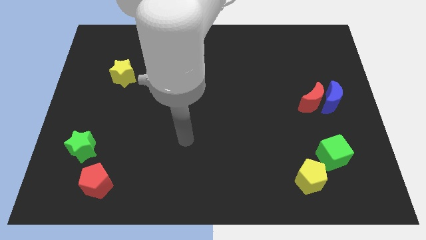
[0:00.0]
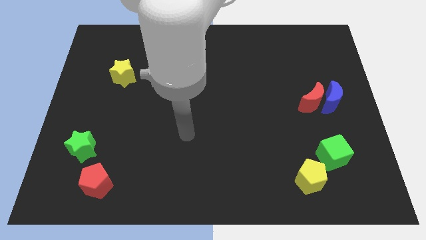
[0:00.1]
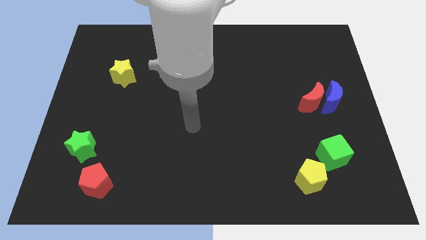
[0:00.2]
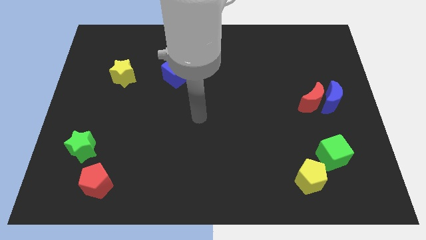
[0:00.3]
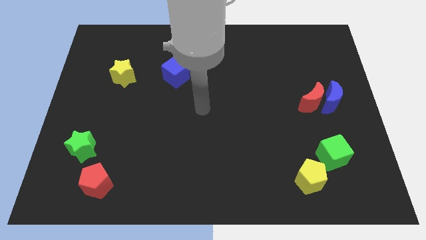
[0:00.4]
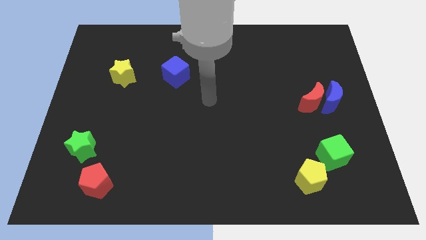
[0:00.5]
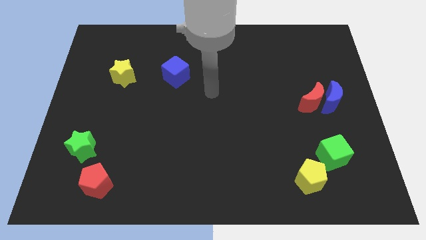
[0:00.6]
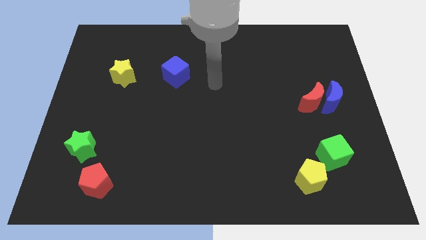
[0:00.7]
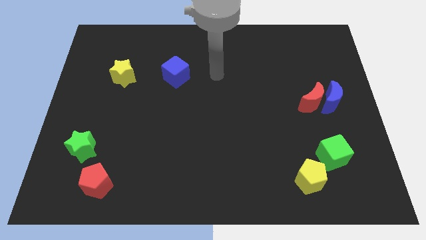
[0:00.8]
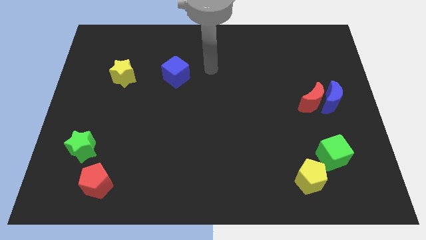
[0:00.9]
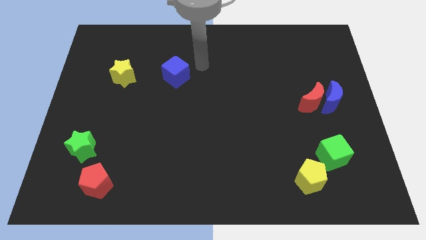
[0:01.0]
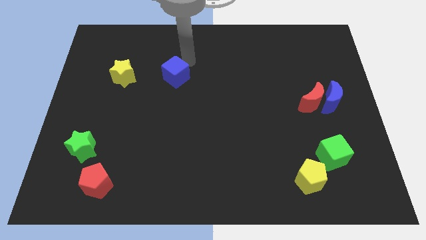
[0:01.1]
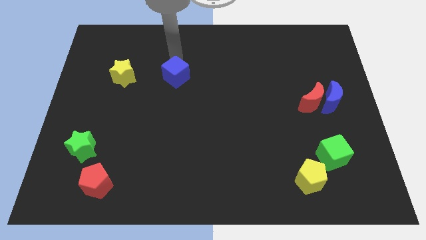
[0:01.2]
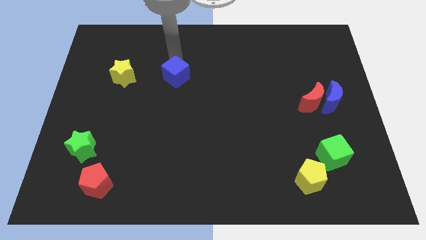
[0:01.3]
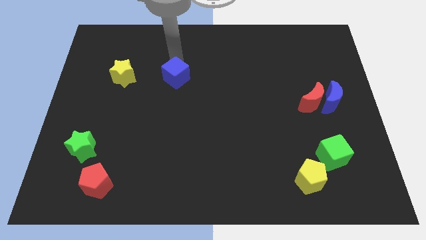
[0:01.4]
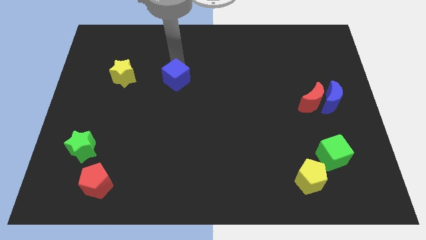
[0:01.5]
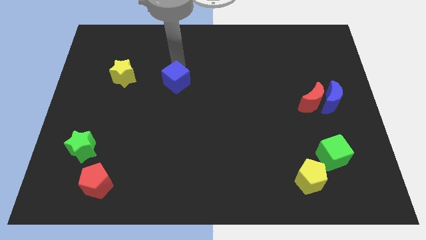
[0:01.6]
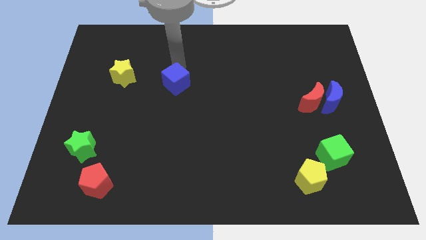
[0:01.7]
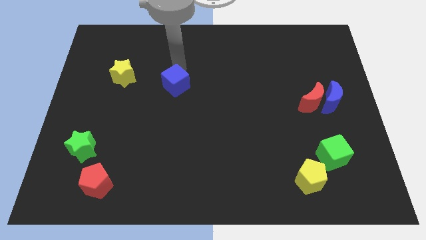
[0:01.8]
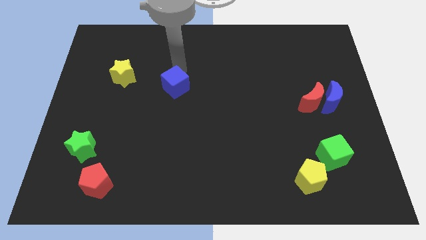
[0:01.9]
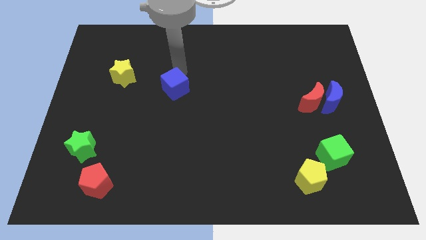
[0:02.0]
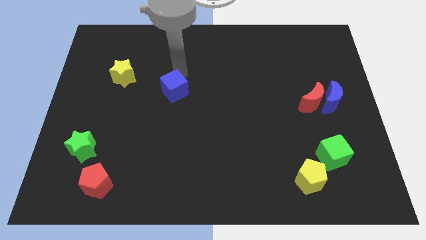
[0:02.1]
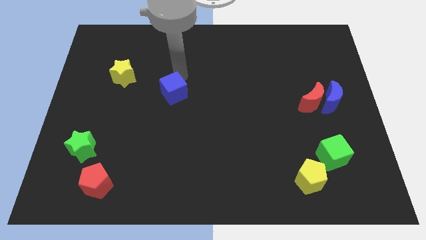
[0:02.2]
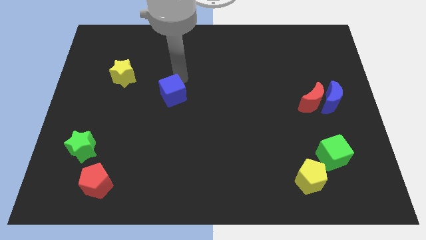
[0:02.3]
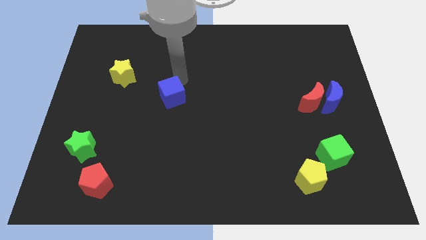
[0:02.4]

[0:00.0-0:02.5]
move the blue cube a bit down

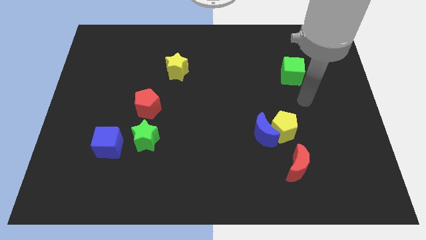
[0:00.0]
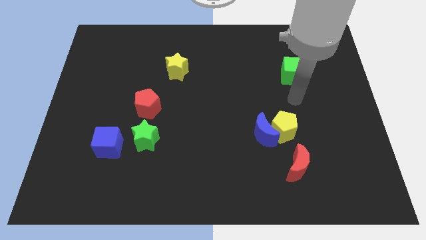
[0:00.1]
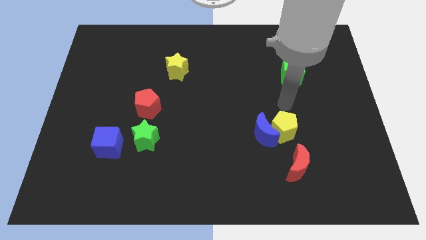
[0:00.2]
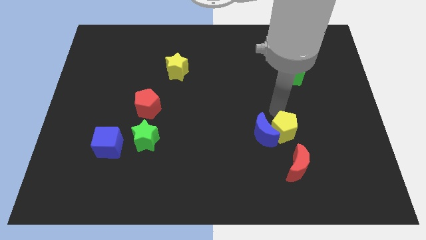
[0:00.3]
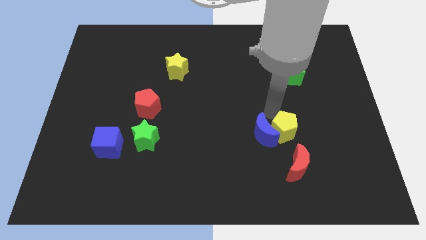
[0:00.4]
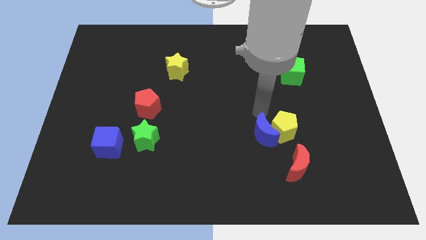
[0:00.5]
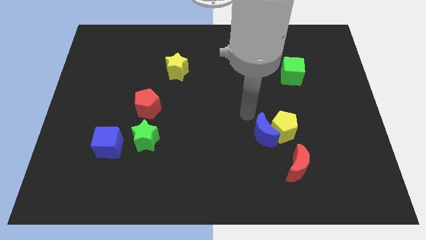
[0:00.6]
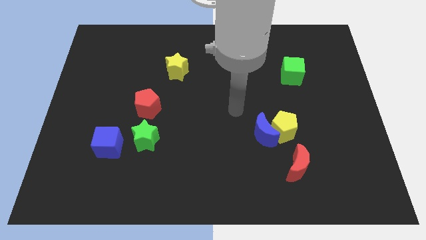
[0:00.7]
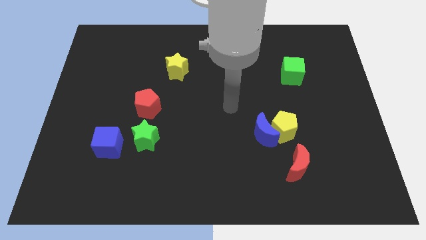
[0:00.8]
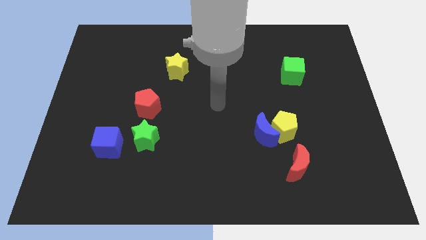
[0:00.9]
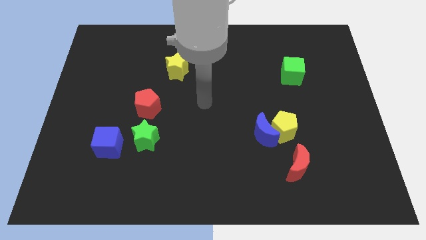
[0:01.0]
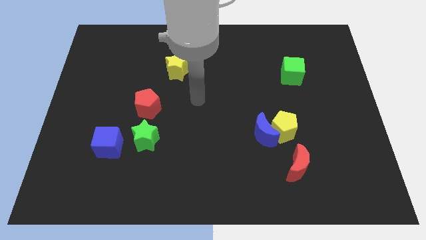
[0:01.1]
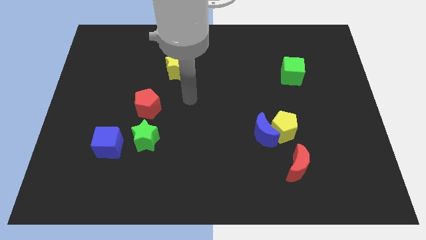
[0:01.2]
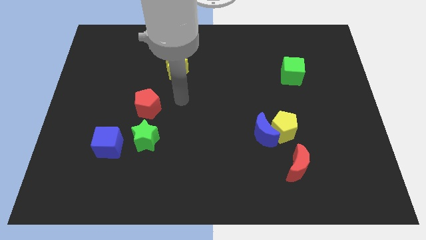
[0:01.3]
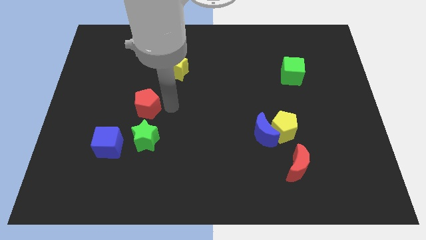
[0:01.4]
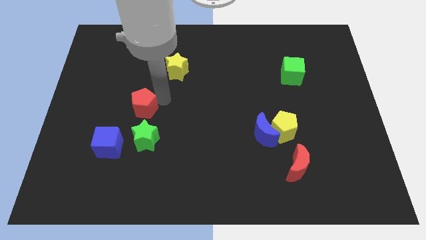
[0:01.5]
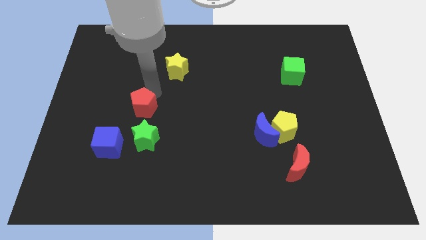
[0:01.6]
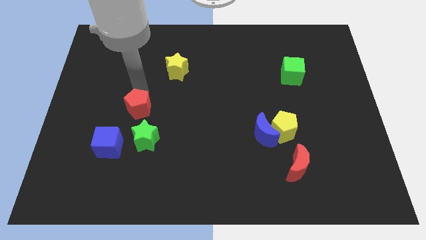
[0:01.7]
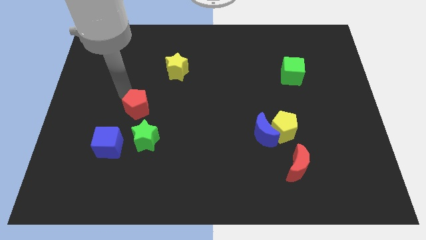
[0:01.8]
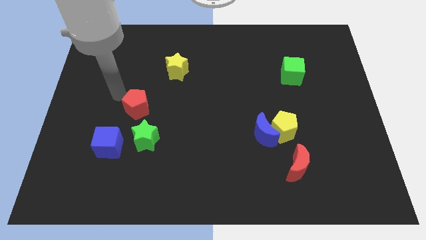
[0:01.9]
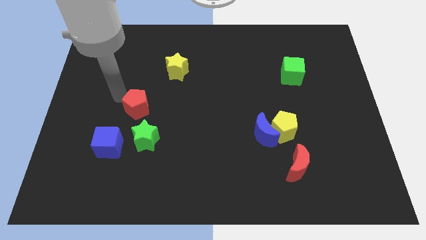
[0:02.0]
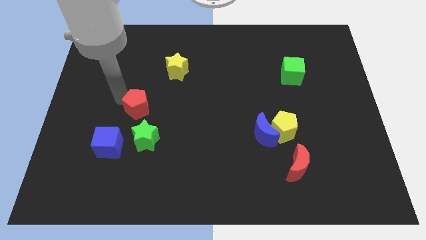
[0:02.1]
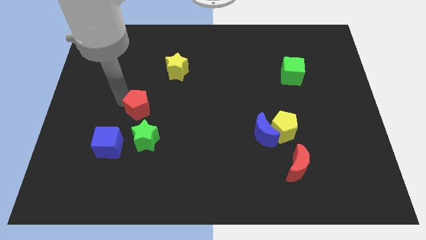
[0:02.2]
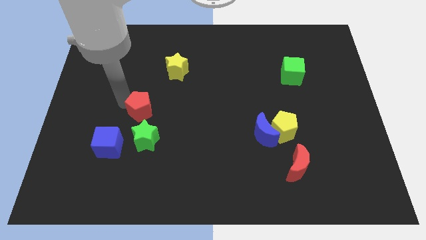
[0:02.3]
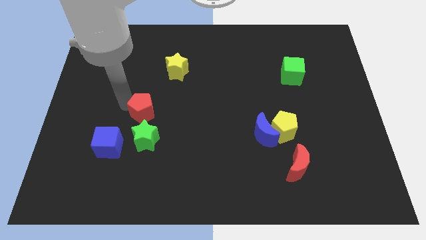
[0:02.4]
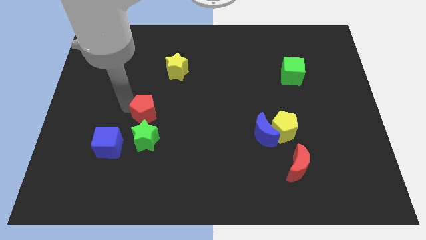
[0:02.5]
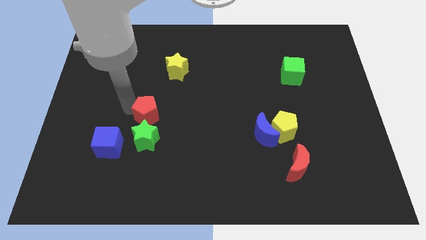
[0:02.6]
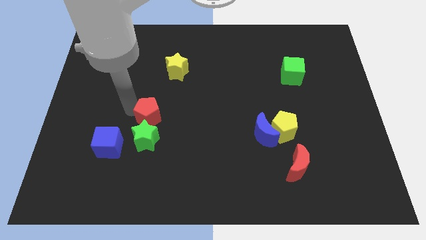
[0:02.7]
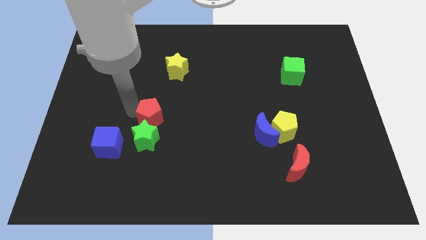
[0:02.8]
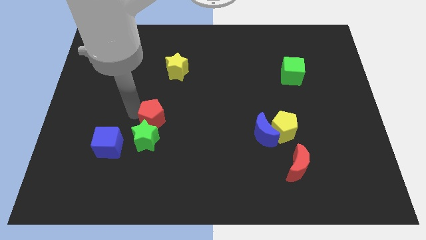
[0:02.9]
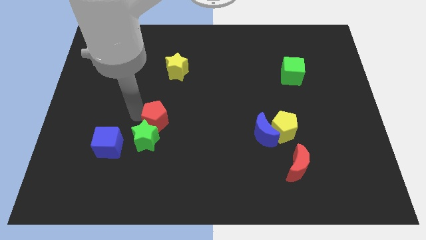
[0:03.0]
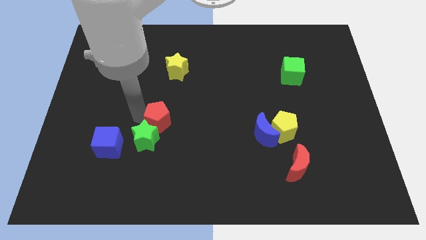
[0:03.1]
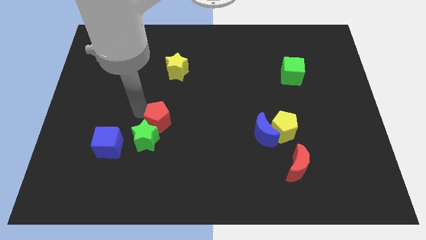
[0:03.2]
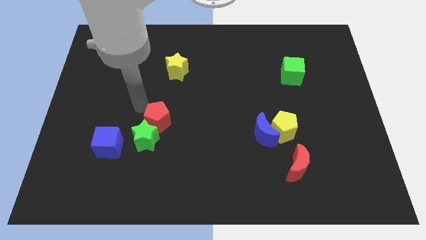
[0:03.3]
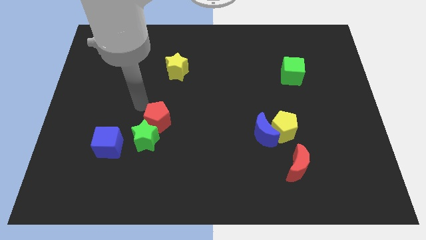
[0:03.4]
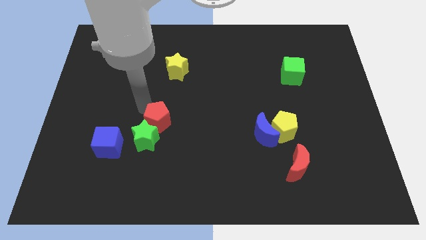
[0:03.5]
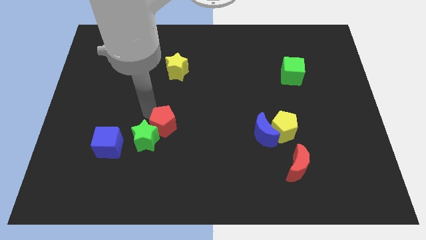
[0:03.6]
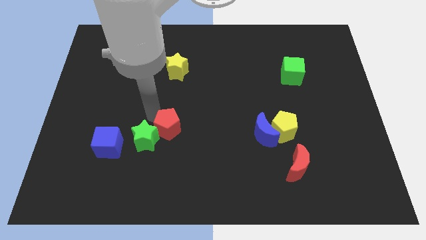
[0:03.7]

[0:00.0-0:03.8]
move the red pentagon downwards and then right a little bit

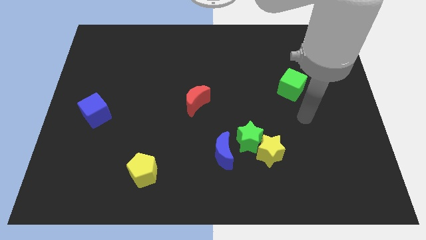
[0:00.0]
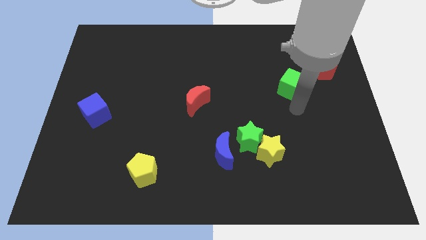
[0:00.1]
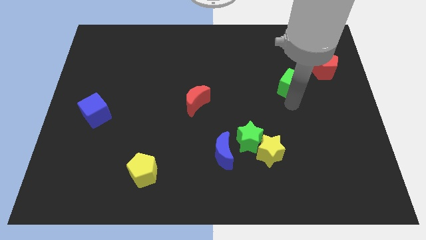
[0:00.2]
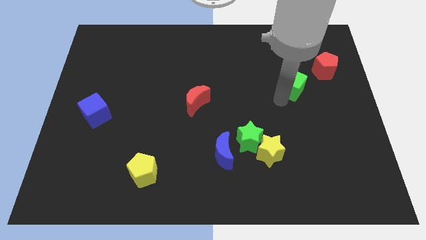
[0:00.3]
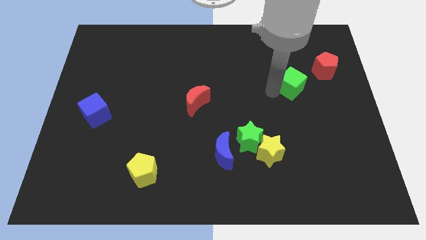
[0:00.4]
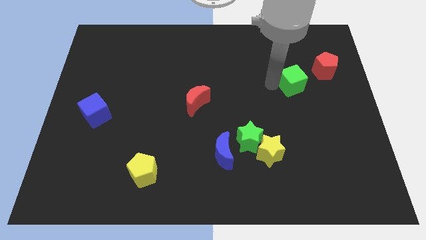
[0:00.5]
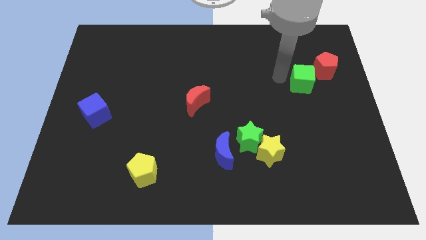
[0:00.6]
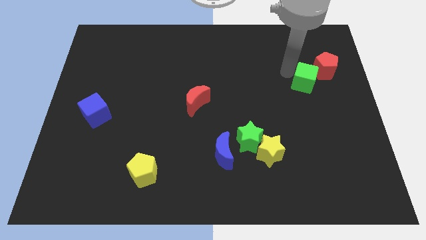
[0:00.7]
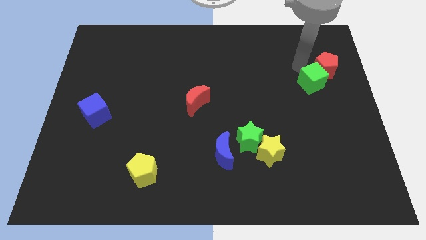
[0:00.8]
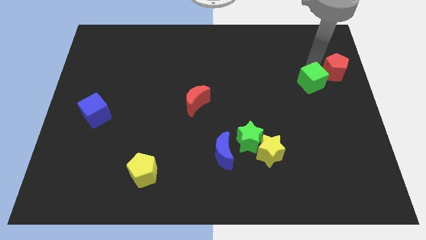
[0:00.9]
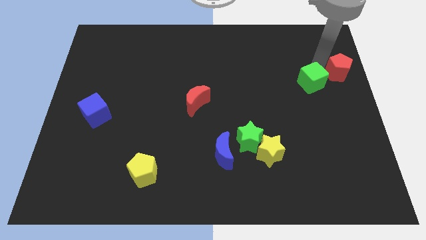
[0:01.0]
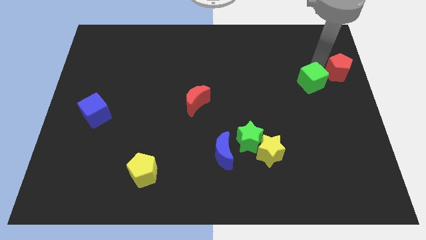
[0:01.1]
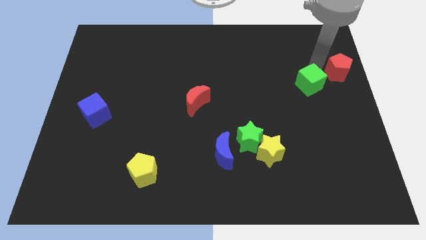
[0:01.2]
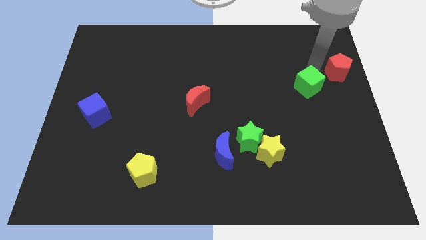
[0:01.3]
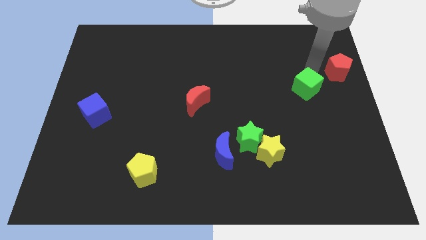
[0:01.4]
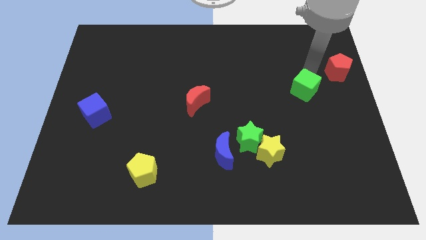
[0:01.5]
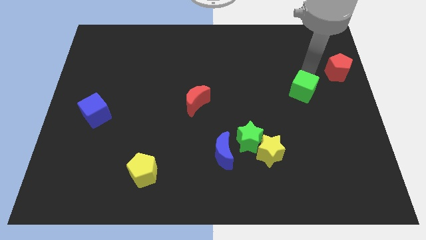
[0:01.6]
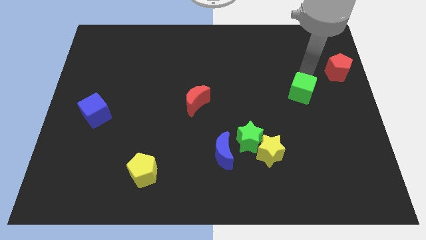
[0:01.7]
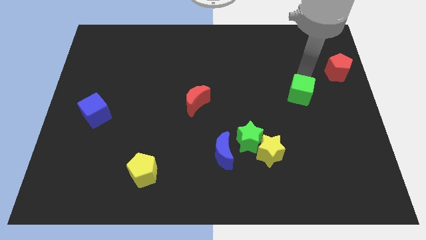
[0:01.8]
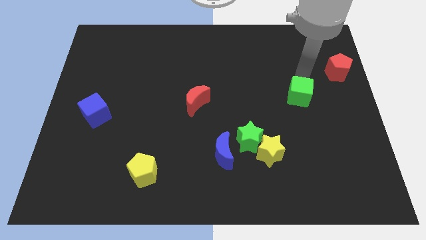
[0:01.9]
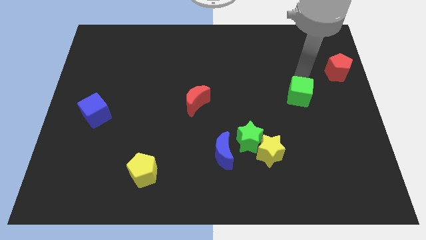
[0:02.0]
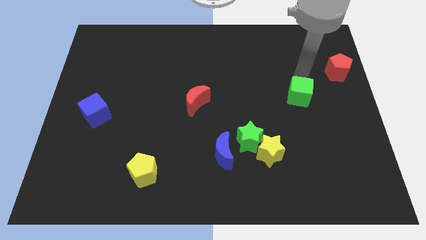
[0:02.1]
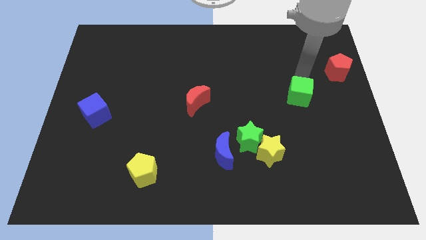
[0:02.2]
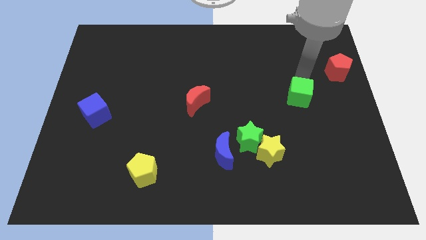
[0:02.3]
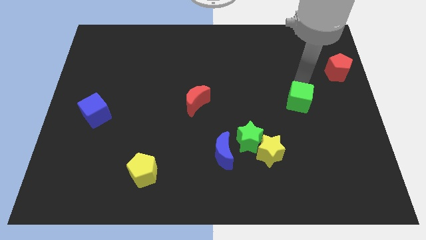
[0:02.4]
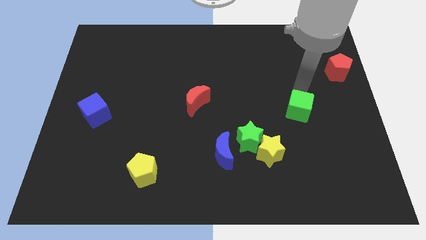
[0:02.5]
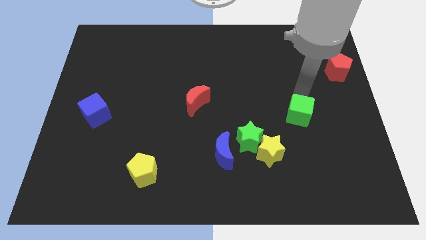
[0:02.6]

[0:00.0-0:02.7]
move the green cube somewhat down
